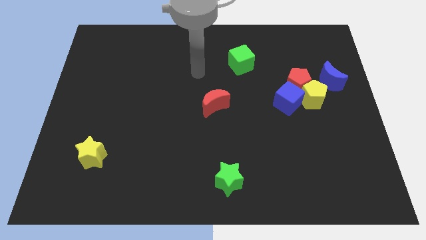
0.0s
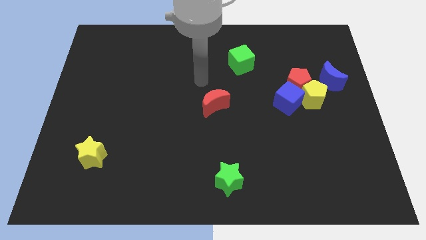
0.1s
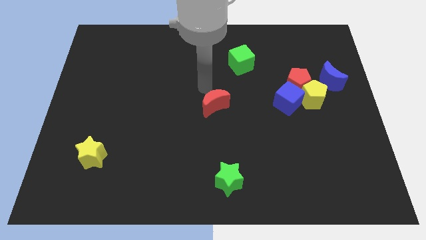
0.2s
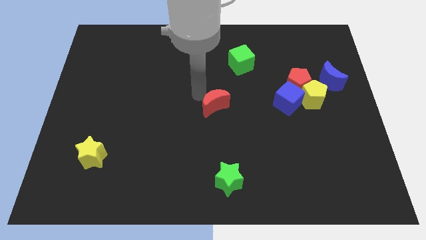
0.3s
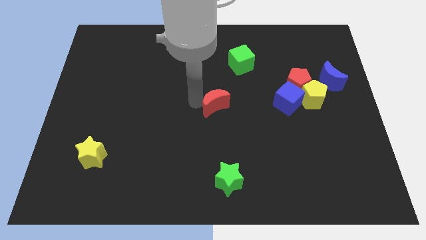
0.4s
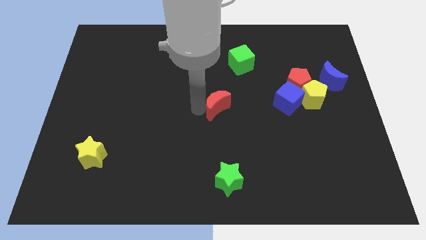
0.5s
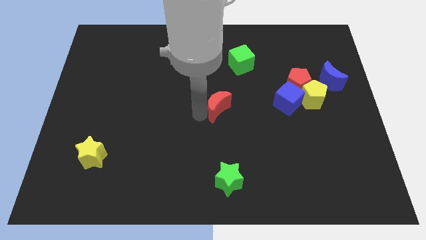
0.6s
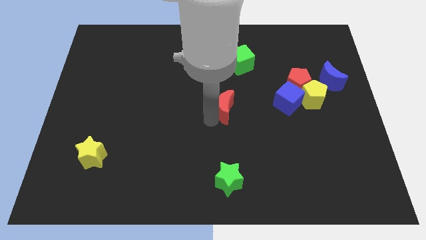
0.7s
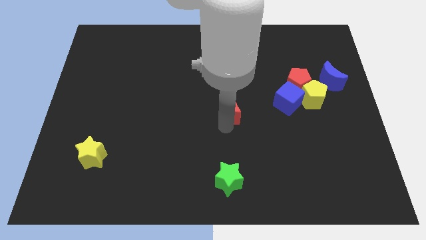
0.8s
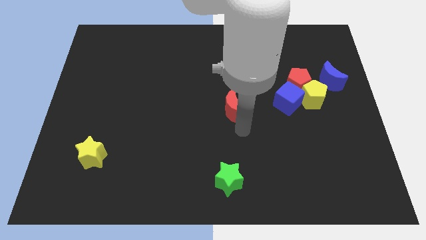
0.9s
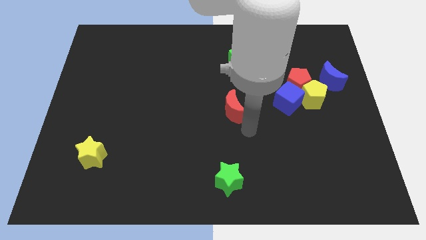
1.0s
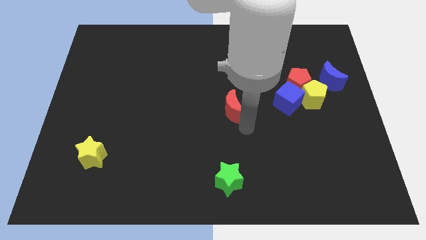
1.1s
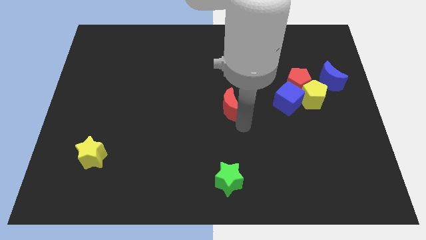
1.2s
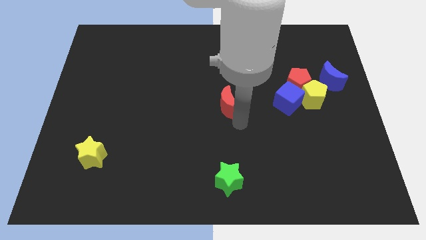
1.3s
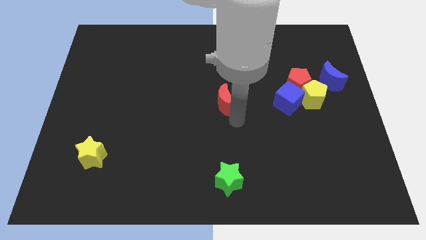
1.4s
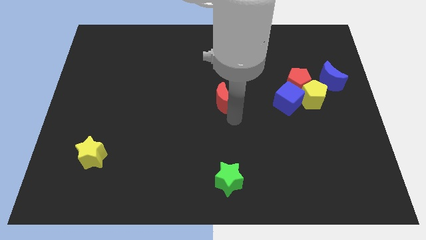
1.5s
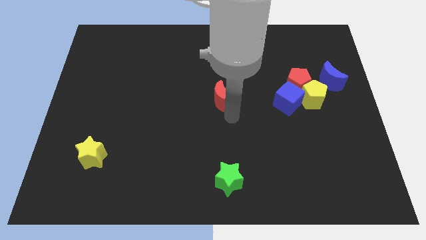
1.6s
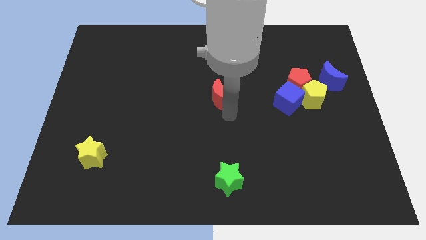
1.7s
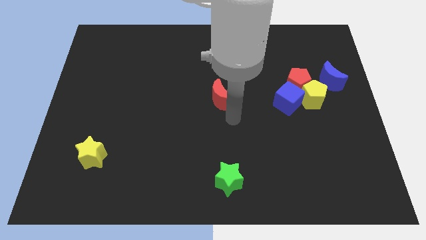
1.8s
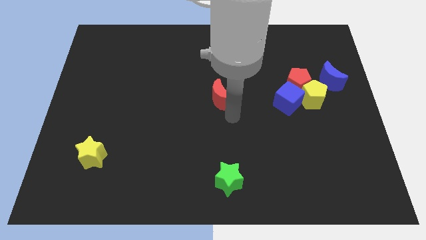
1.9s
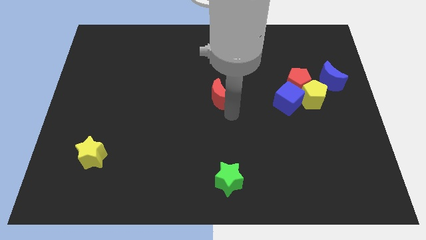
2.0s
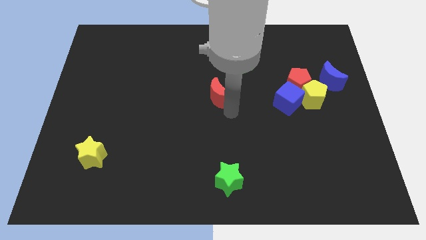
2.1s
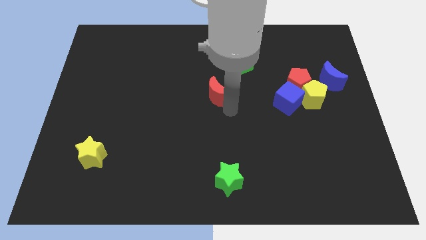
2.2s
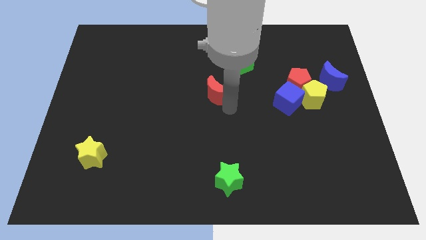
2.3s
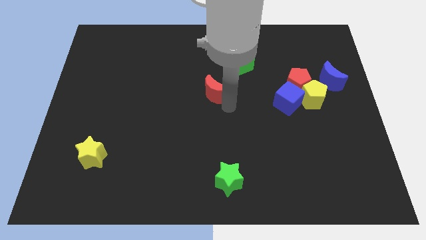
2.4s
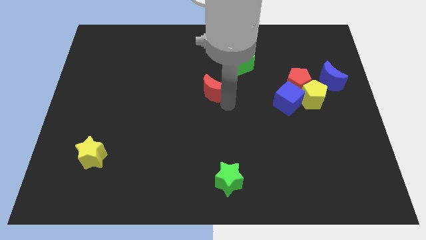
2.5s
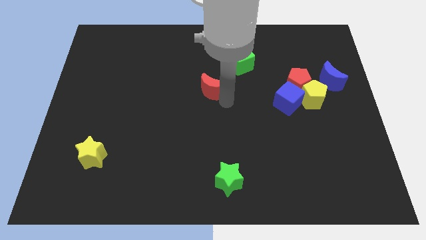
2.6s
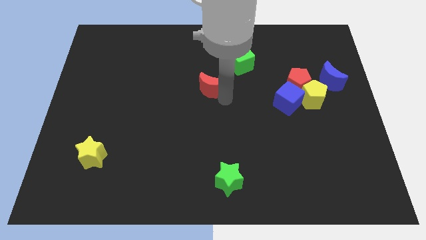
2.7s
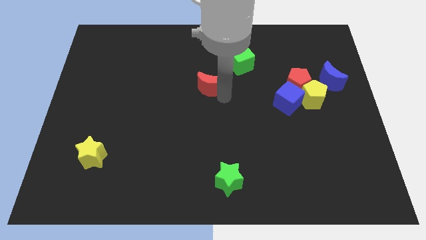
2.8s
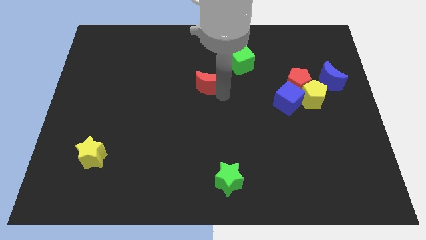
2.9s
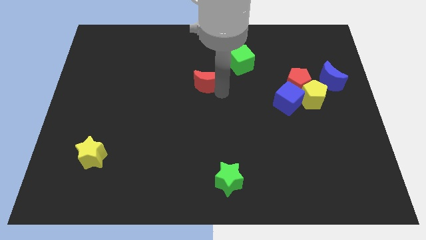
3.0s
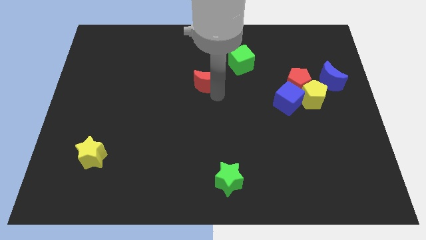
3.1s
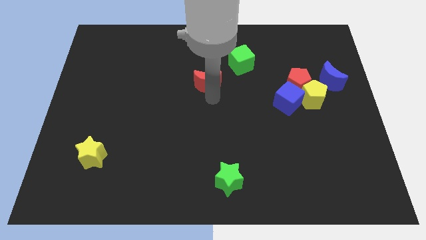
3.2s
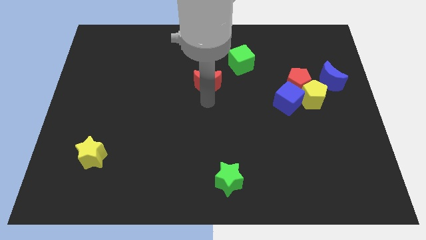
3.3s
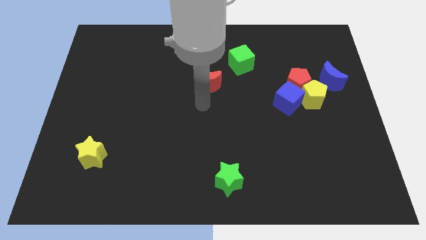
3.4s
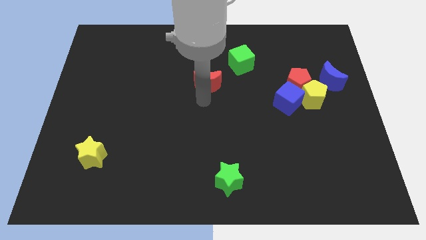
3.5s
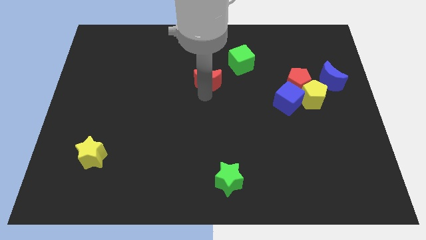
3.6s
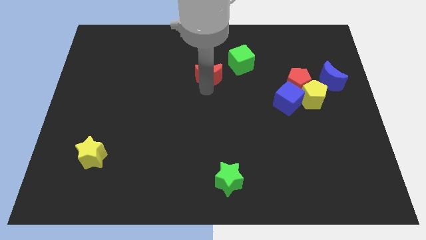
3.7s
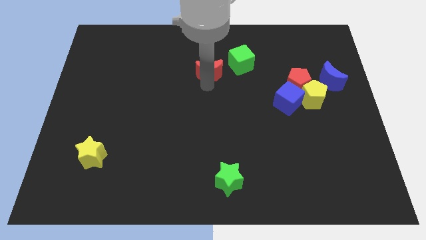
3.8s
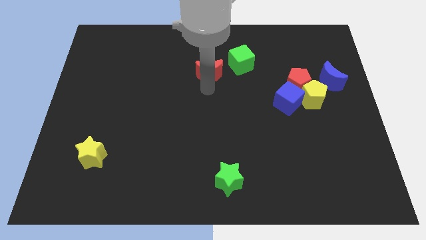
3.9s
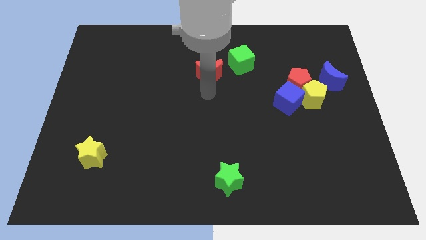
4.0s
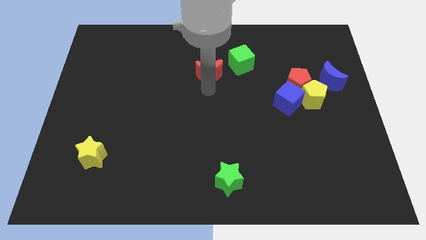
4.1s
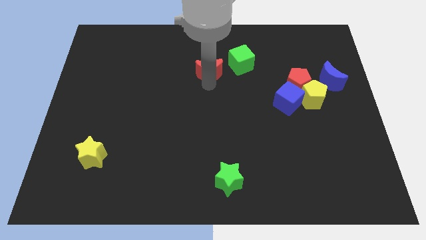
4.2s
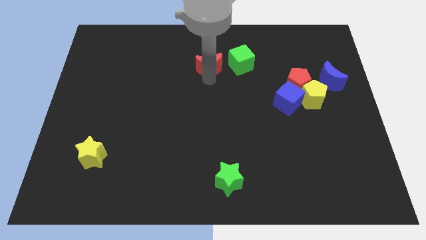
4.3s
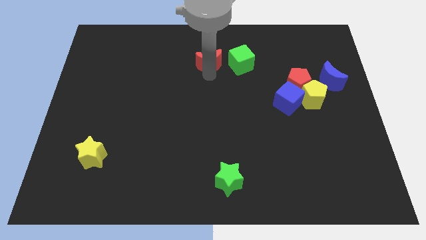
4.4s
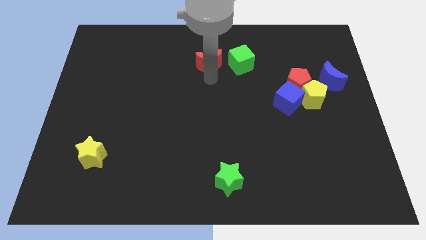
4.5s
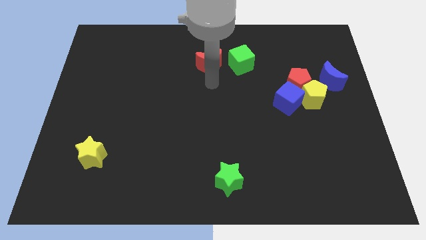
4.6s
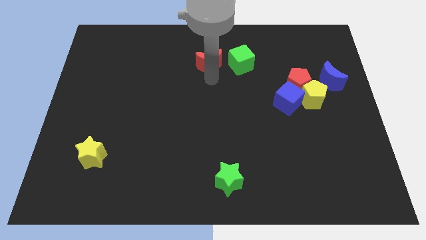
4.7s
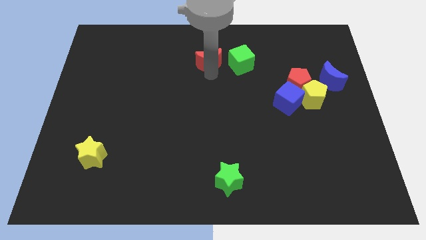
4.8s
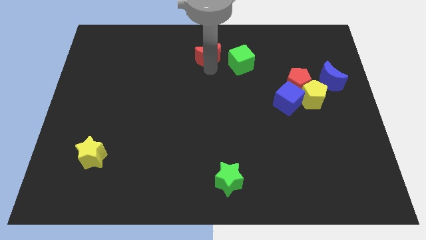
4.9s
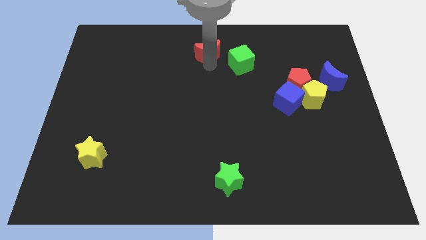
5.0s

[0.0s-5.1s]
slide the red moon to the towards your base

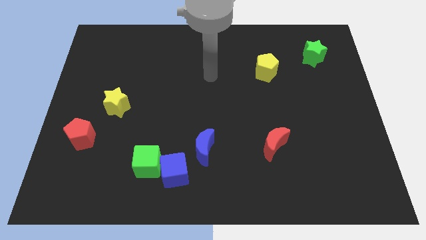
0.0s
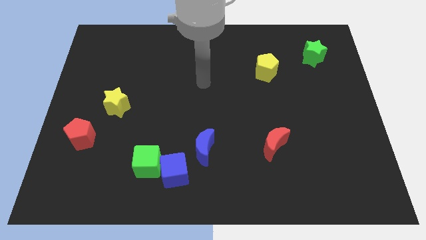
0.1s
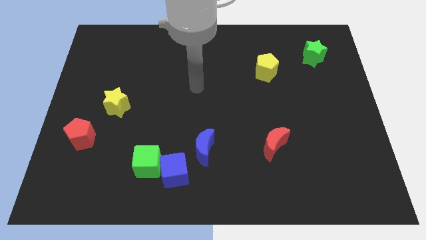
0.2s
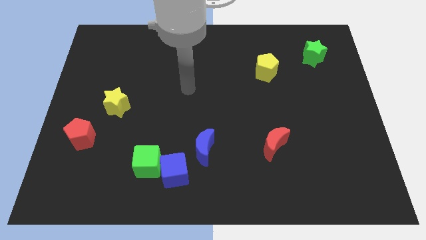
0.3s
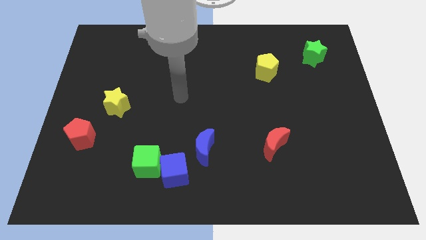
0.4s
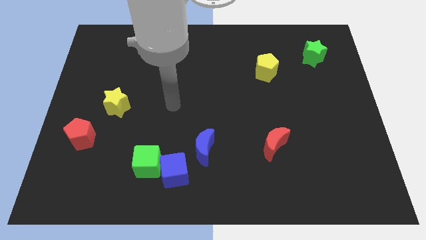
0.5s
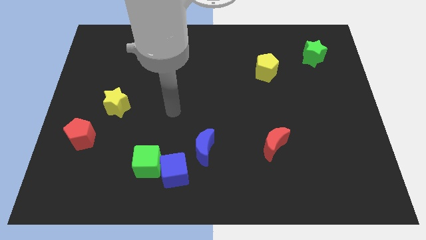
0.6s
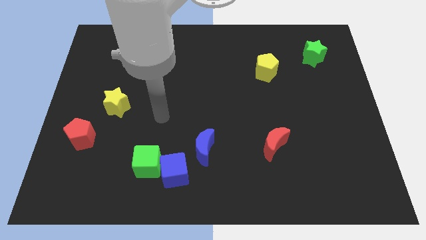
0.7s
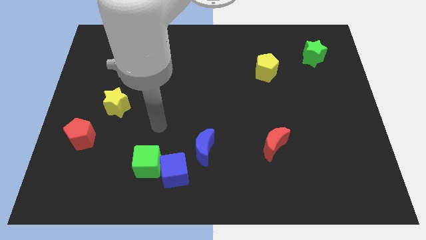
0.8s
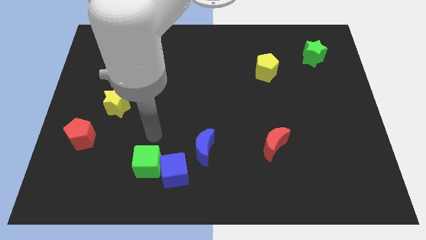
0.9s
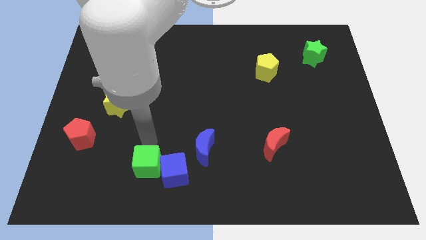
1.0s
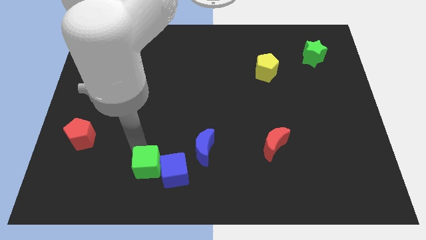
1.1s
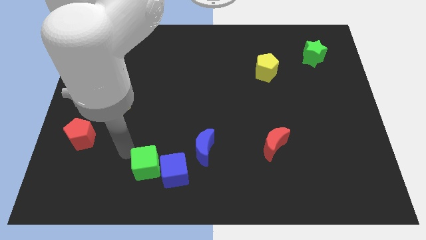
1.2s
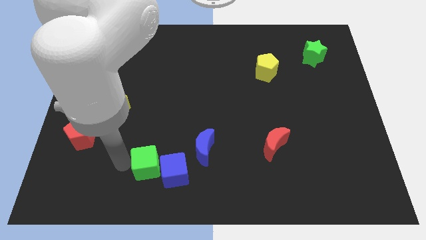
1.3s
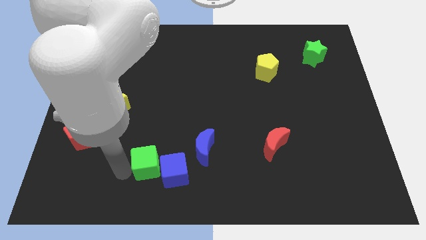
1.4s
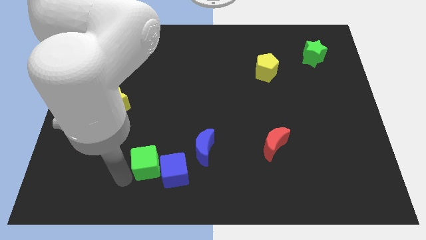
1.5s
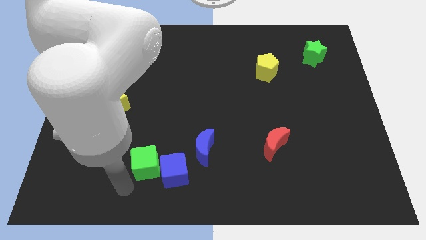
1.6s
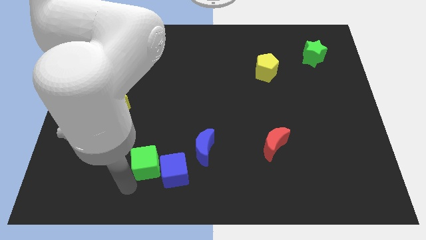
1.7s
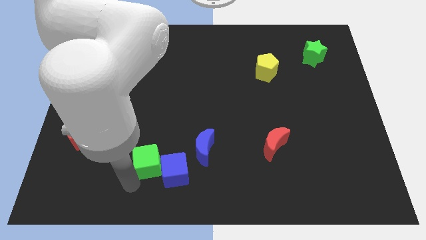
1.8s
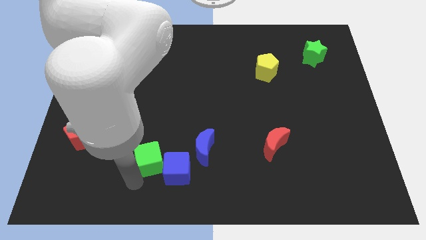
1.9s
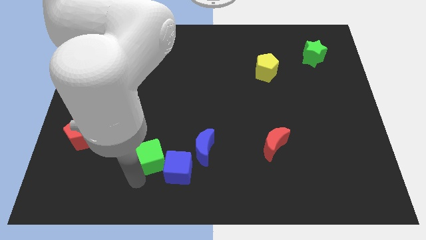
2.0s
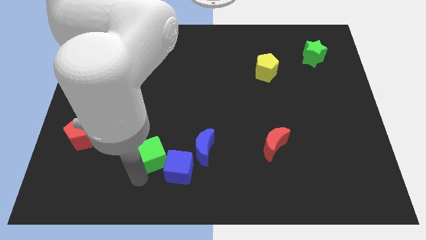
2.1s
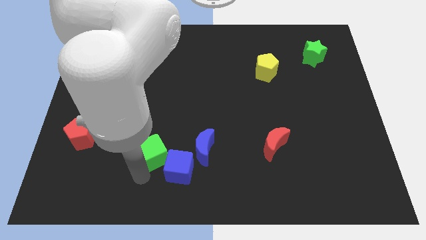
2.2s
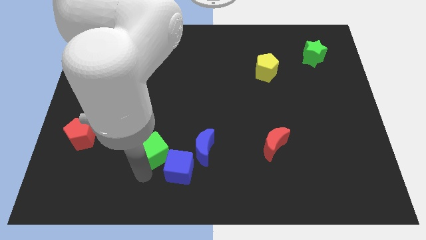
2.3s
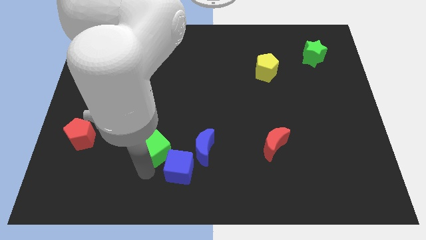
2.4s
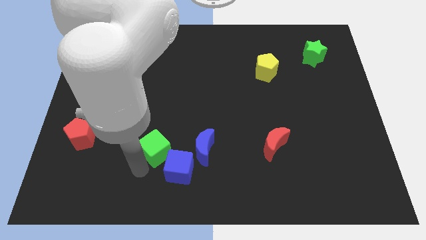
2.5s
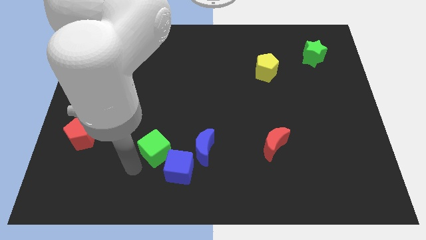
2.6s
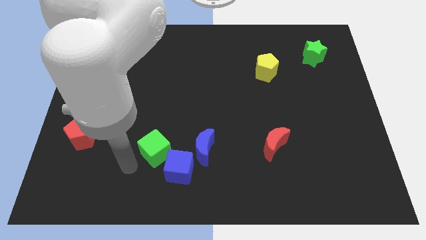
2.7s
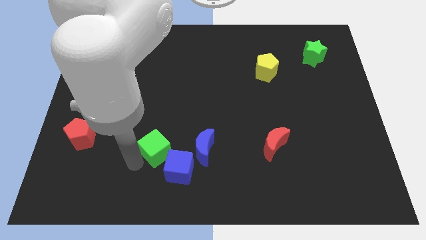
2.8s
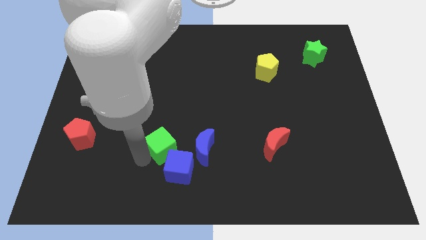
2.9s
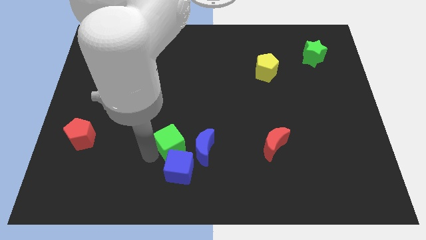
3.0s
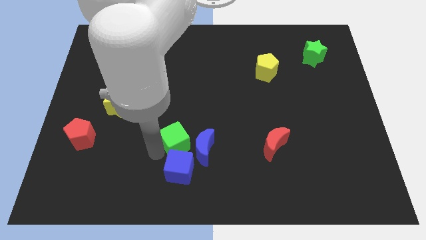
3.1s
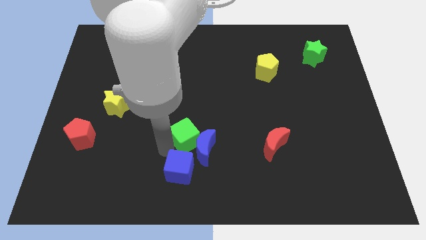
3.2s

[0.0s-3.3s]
slide the green cube to the center
